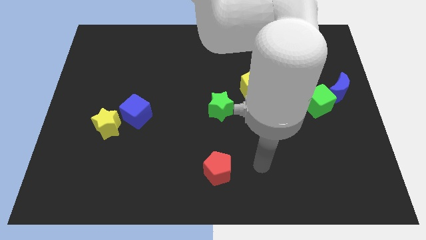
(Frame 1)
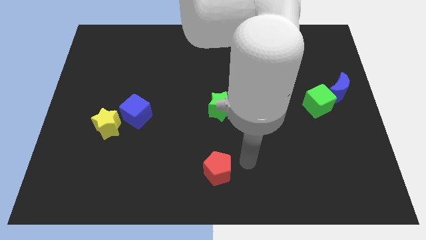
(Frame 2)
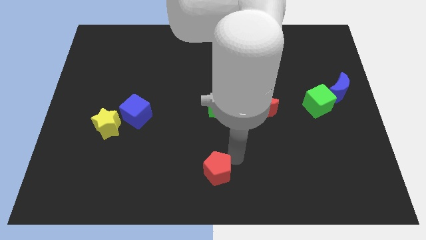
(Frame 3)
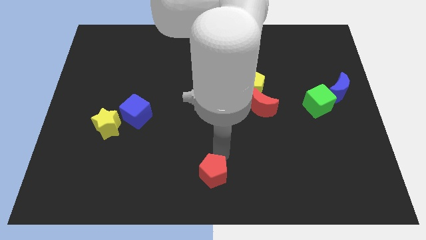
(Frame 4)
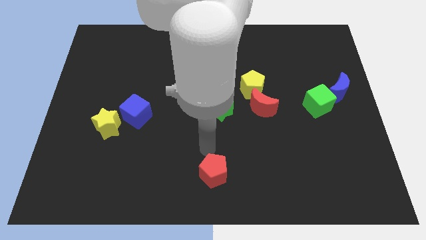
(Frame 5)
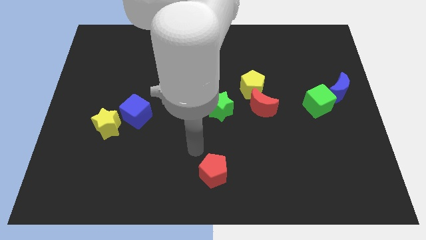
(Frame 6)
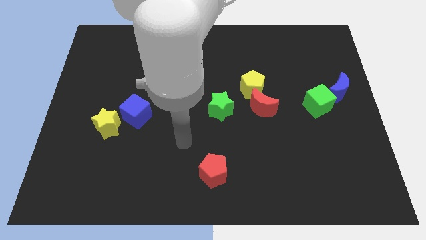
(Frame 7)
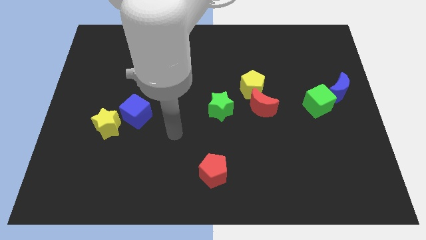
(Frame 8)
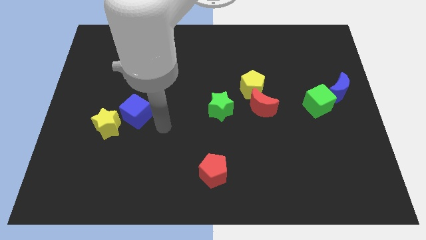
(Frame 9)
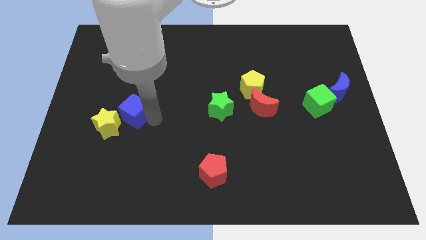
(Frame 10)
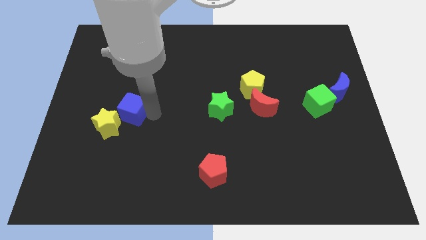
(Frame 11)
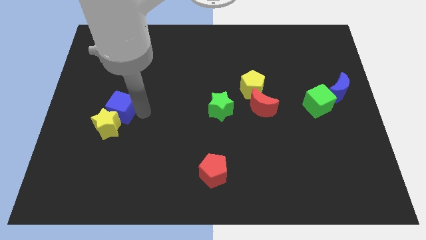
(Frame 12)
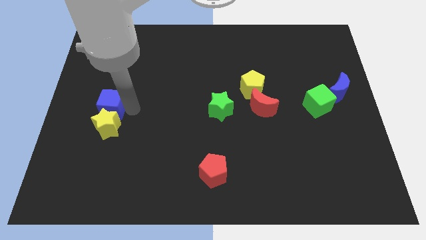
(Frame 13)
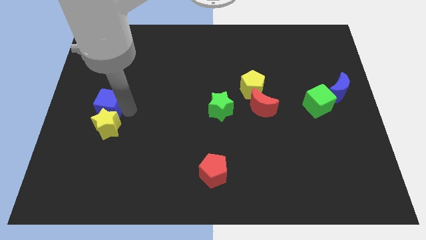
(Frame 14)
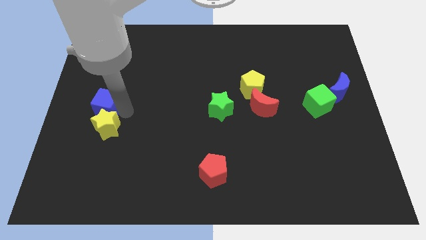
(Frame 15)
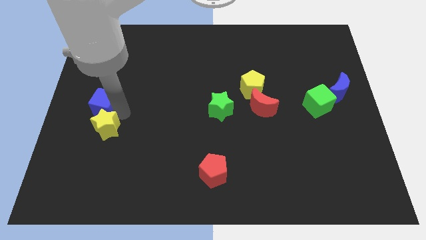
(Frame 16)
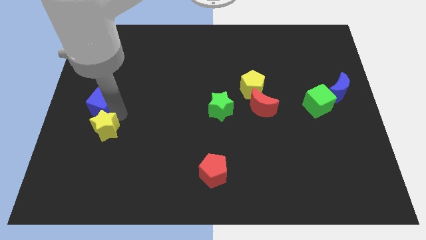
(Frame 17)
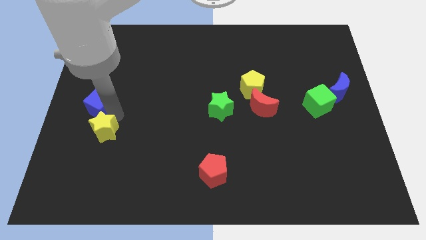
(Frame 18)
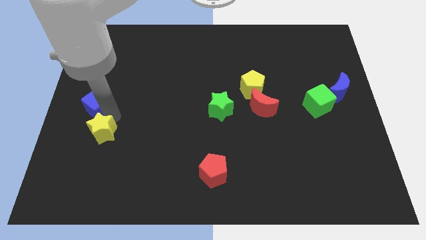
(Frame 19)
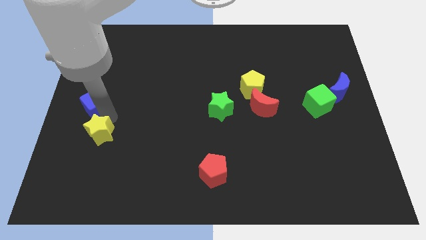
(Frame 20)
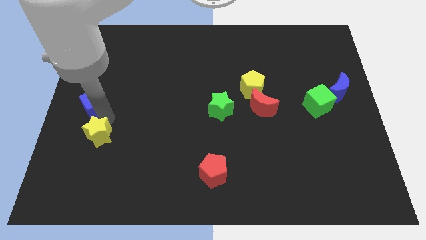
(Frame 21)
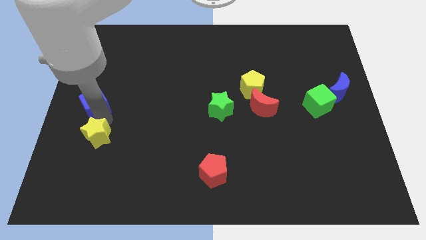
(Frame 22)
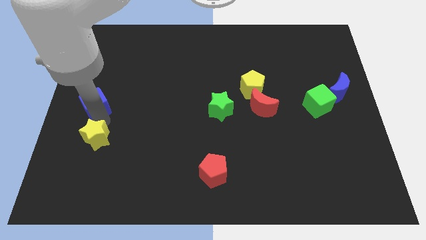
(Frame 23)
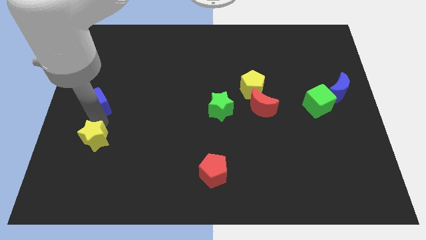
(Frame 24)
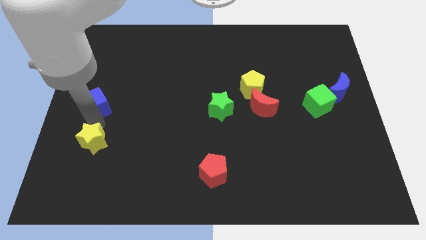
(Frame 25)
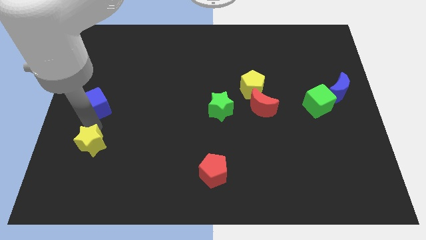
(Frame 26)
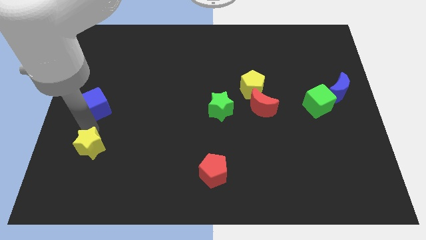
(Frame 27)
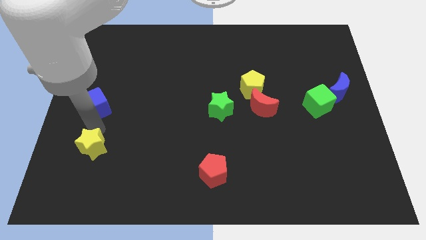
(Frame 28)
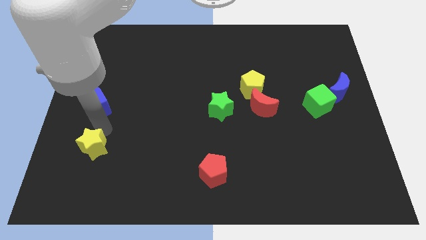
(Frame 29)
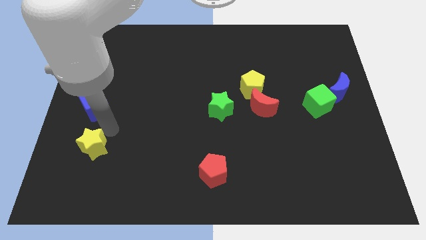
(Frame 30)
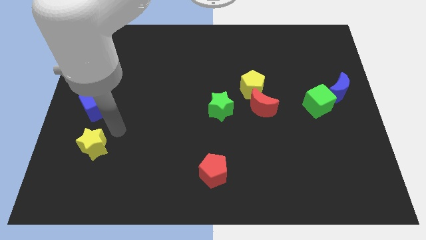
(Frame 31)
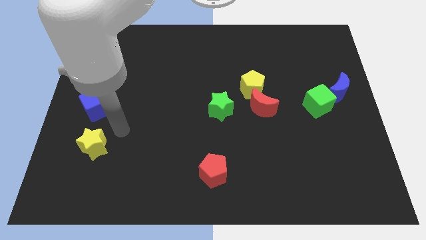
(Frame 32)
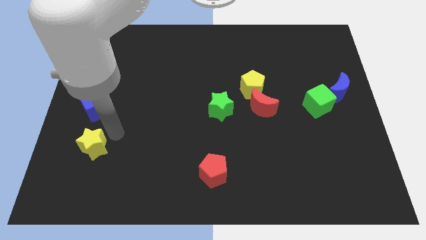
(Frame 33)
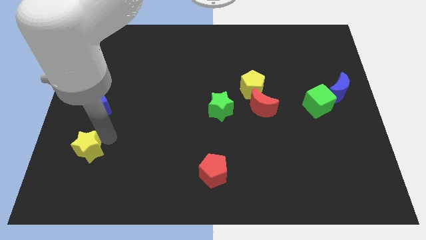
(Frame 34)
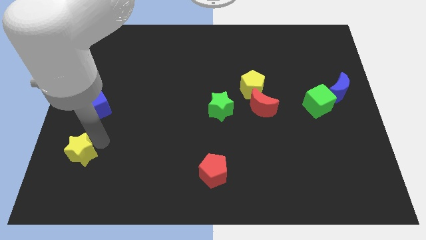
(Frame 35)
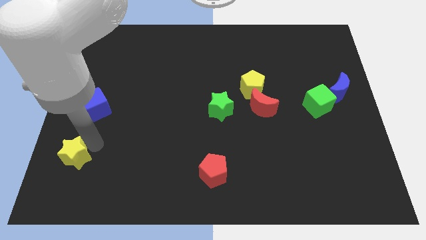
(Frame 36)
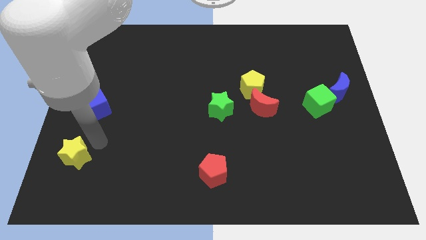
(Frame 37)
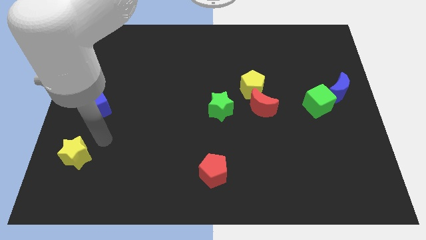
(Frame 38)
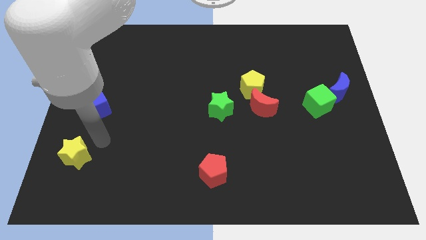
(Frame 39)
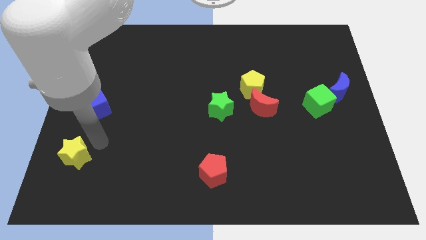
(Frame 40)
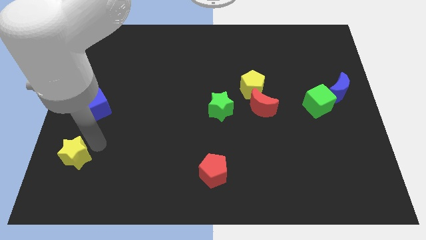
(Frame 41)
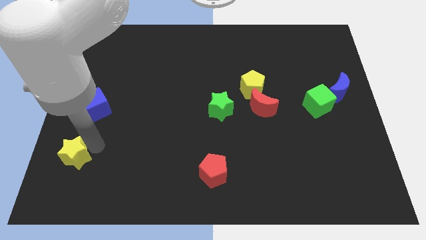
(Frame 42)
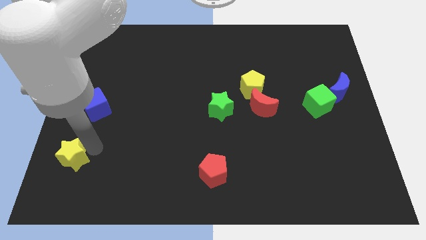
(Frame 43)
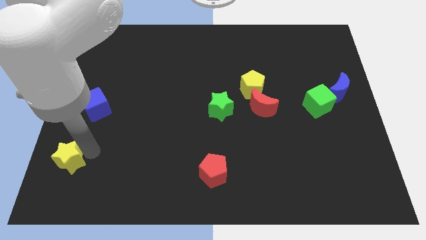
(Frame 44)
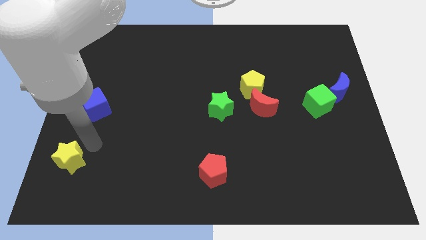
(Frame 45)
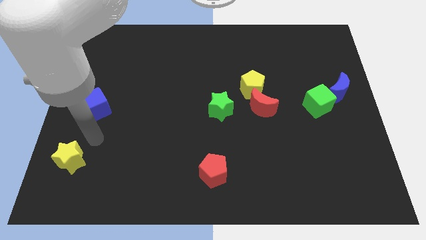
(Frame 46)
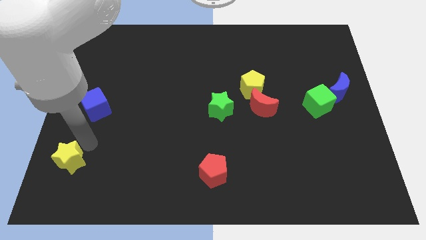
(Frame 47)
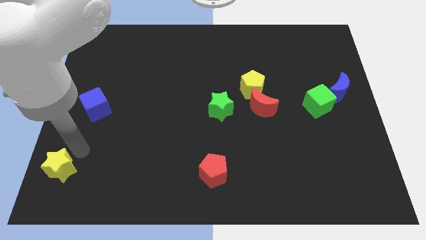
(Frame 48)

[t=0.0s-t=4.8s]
put the yellow star to the bottom left of the board

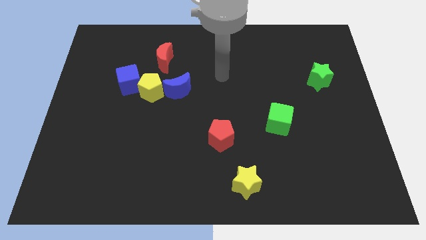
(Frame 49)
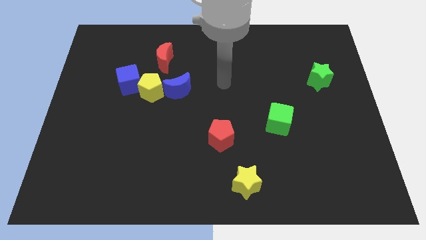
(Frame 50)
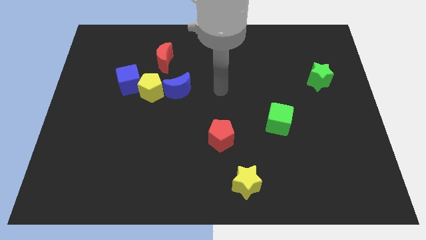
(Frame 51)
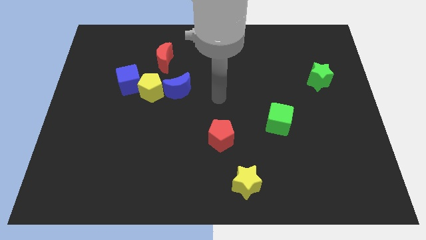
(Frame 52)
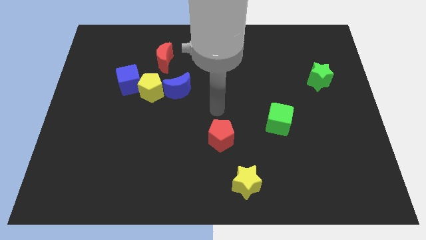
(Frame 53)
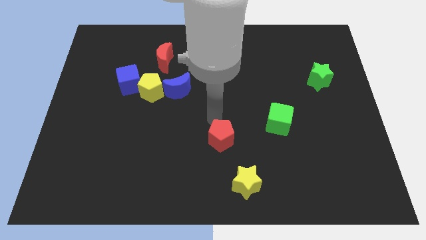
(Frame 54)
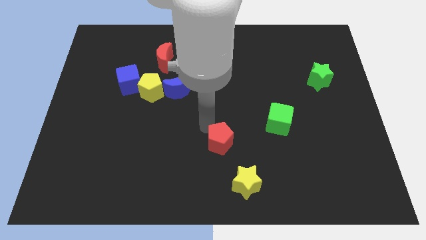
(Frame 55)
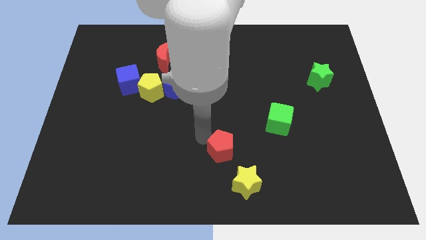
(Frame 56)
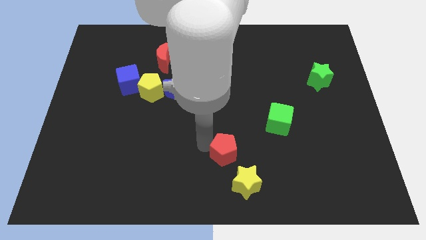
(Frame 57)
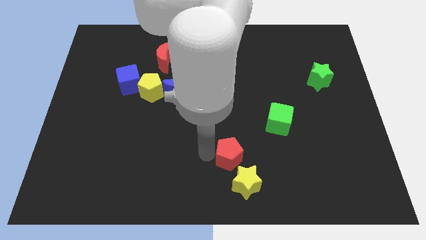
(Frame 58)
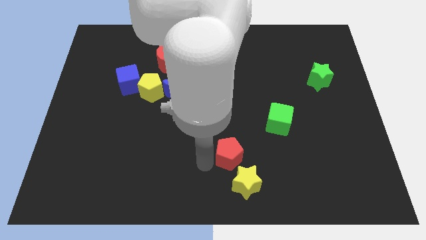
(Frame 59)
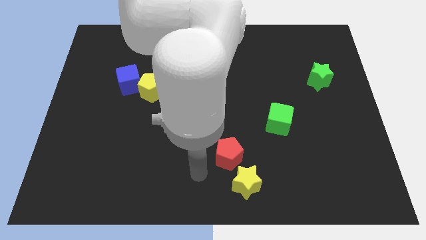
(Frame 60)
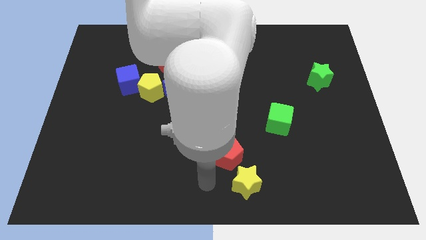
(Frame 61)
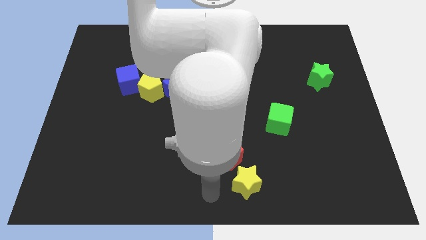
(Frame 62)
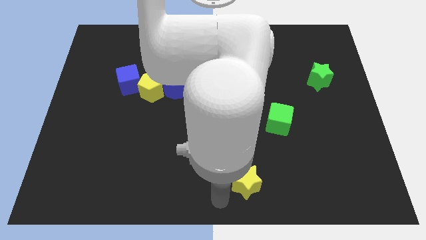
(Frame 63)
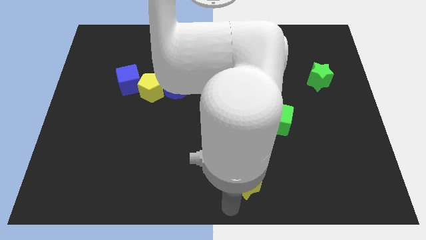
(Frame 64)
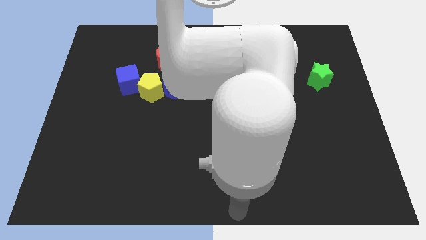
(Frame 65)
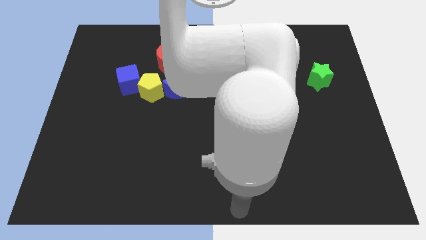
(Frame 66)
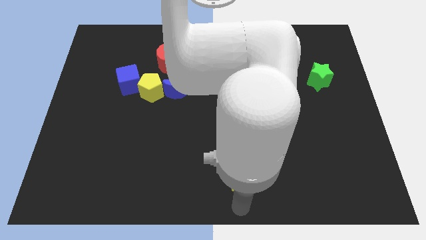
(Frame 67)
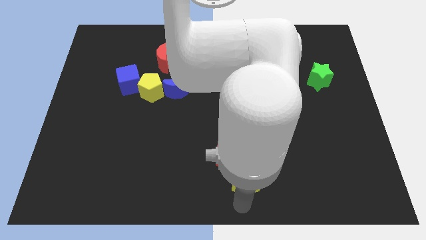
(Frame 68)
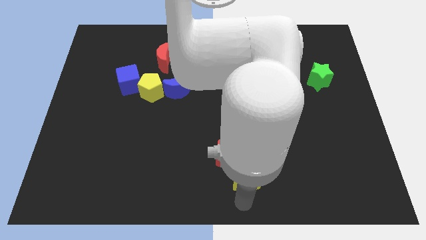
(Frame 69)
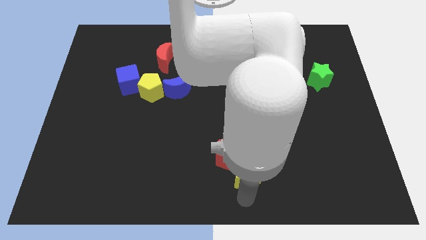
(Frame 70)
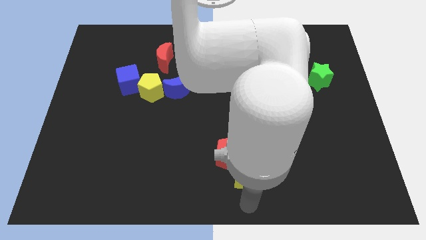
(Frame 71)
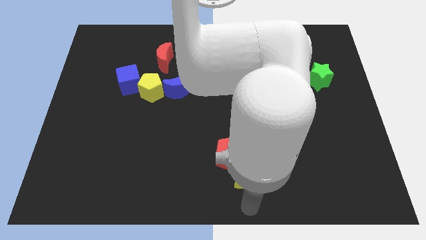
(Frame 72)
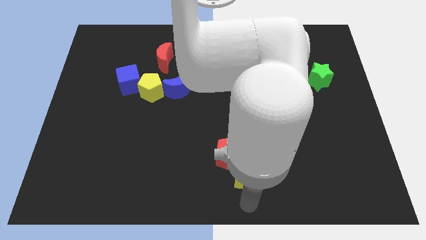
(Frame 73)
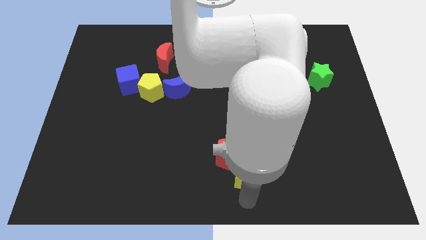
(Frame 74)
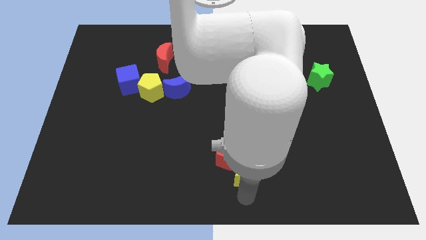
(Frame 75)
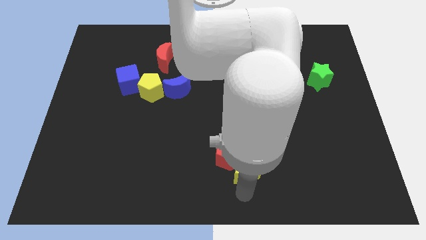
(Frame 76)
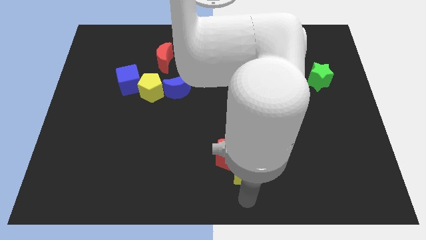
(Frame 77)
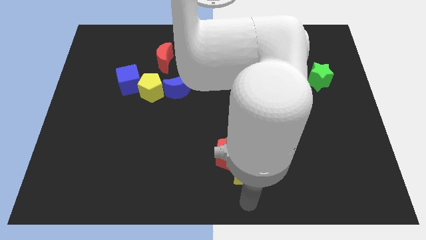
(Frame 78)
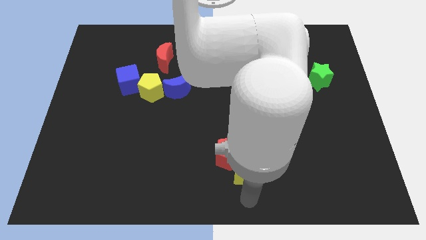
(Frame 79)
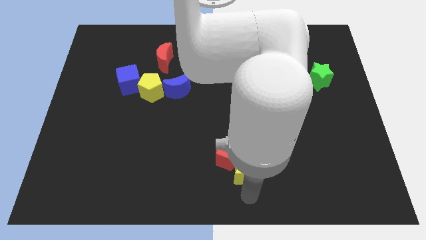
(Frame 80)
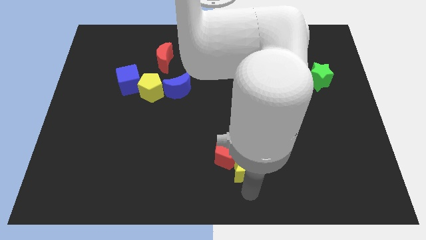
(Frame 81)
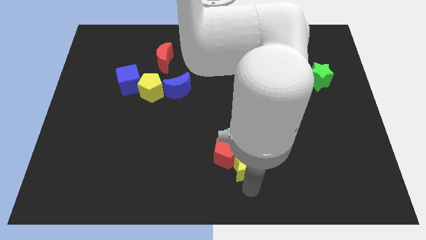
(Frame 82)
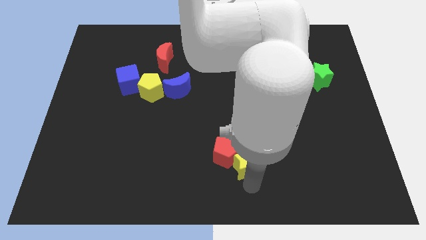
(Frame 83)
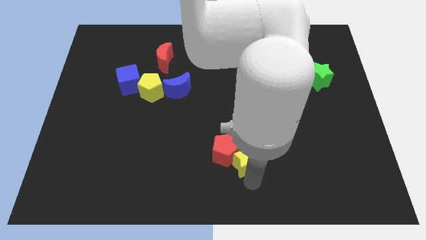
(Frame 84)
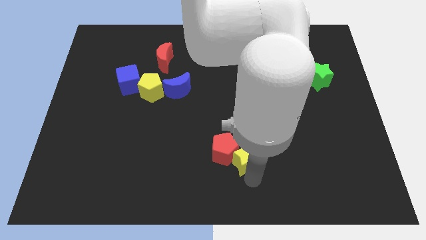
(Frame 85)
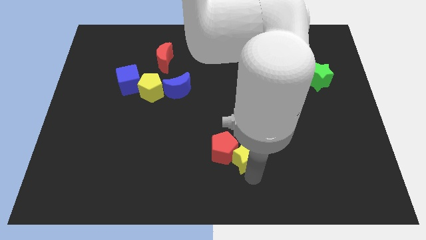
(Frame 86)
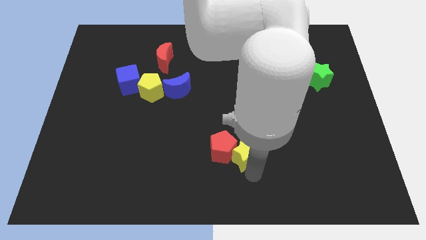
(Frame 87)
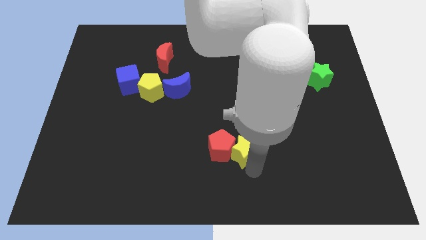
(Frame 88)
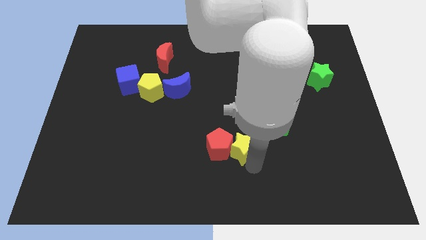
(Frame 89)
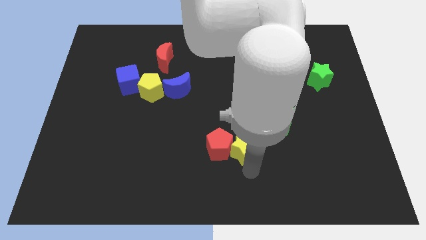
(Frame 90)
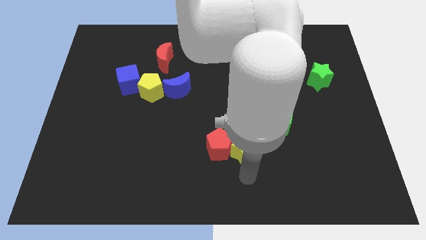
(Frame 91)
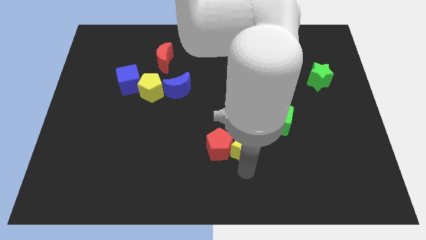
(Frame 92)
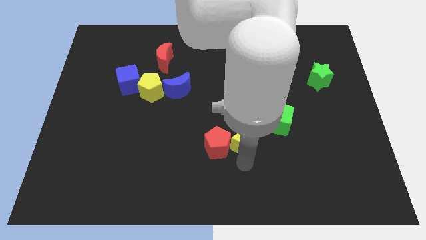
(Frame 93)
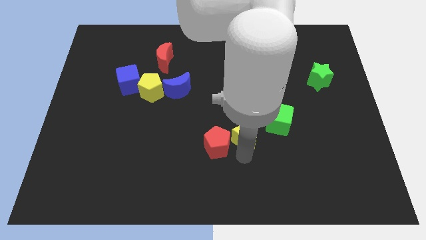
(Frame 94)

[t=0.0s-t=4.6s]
push the yellow star to the middle of the board
